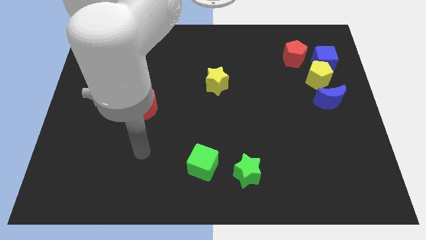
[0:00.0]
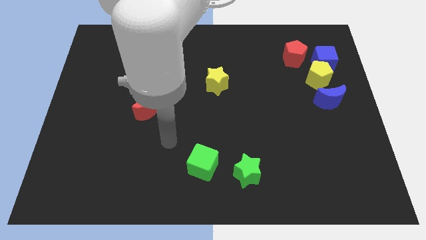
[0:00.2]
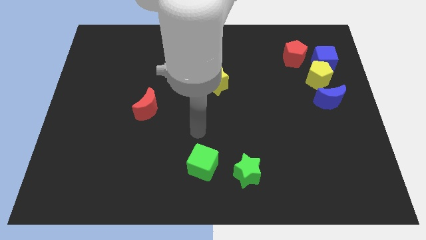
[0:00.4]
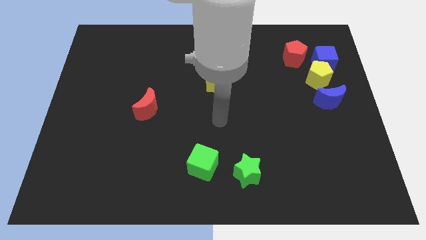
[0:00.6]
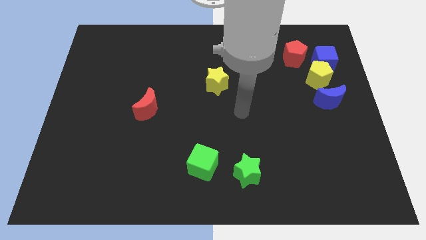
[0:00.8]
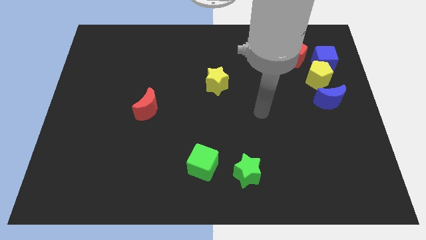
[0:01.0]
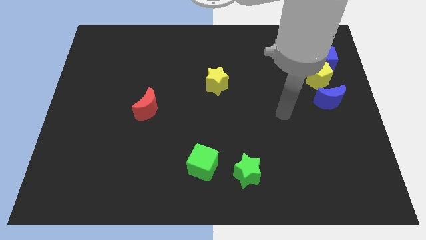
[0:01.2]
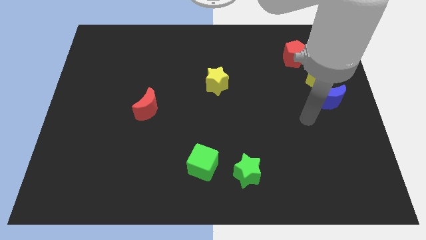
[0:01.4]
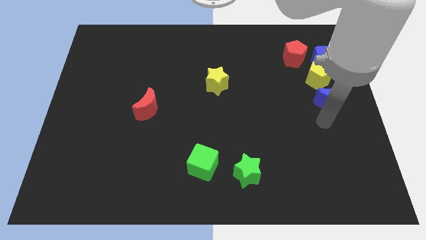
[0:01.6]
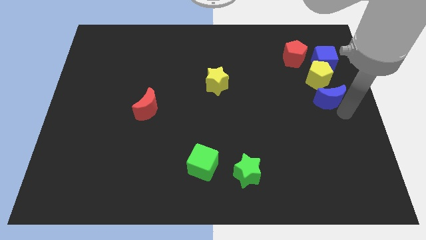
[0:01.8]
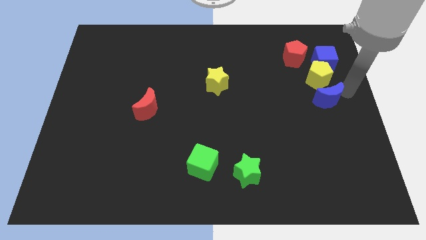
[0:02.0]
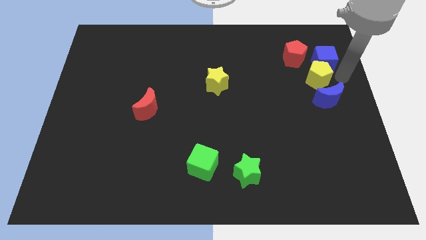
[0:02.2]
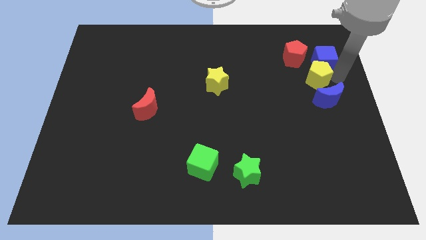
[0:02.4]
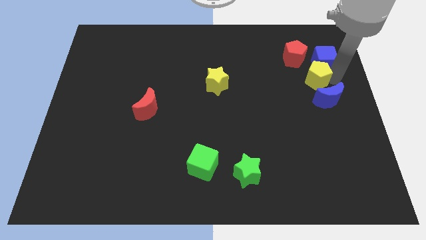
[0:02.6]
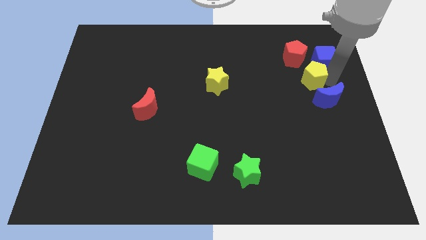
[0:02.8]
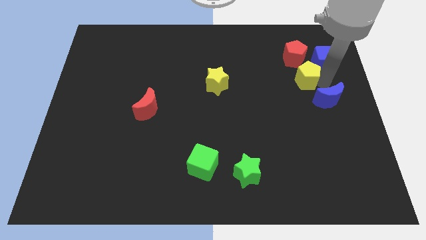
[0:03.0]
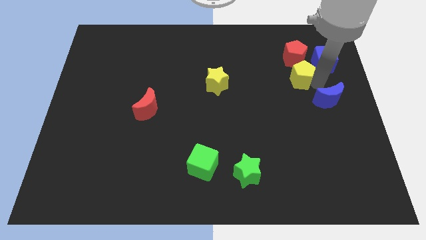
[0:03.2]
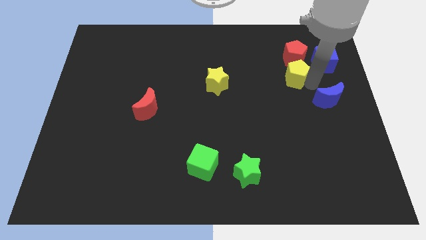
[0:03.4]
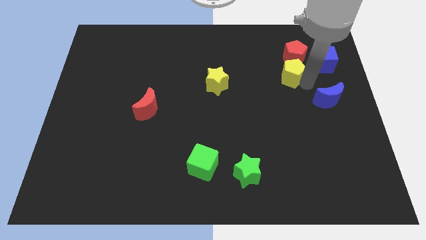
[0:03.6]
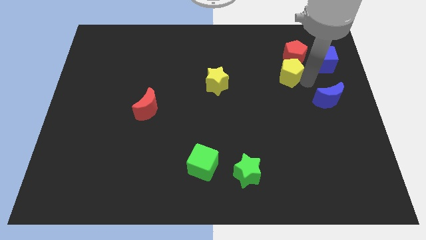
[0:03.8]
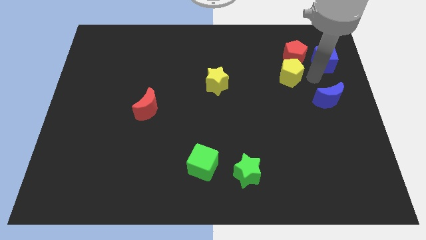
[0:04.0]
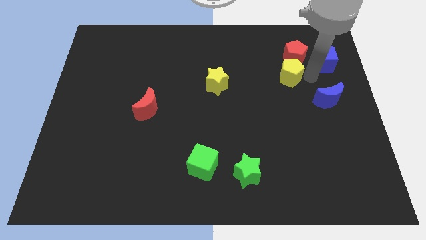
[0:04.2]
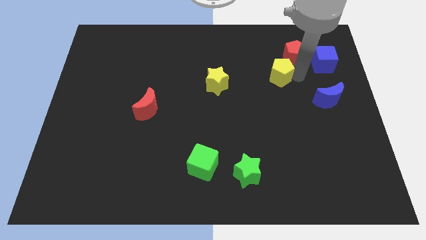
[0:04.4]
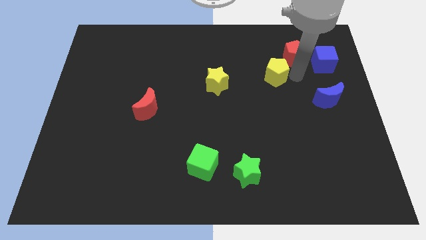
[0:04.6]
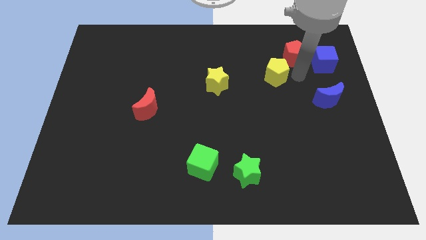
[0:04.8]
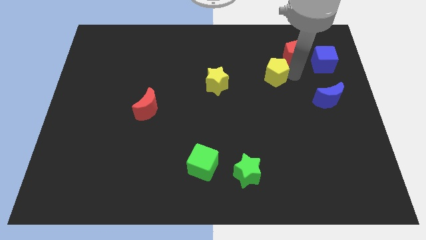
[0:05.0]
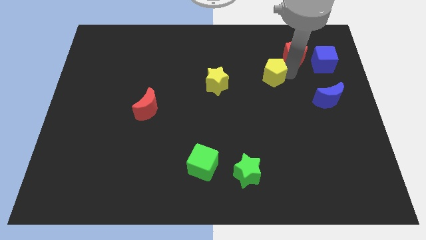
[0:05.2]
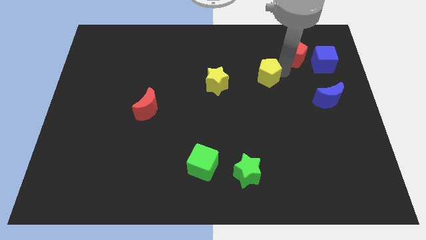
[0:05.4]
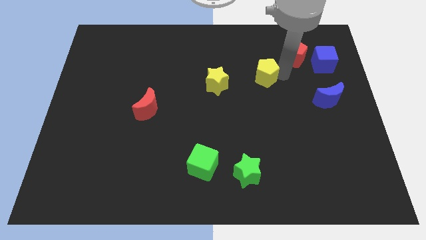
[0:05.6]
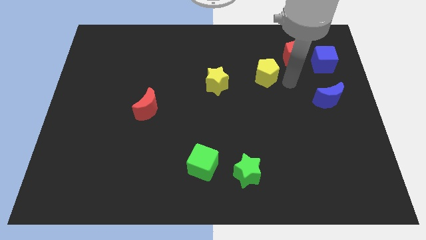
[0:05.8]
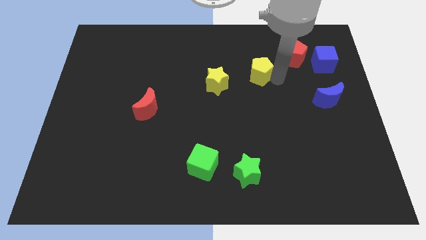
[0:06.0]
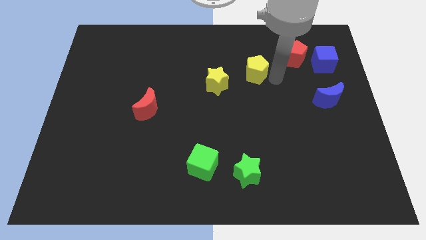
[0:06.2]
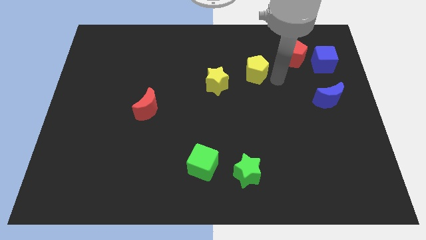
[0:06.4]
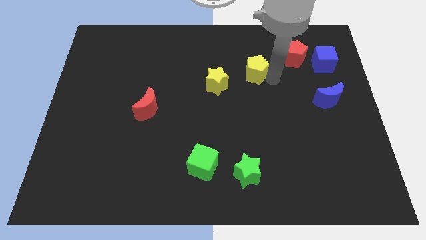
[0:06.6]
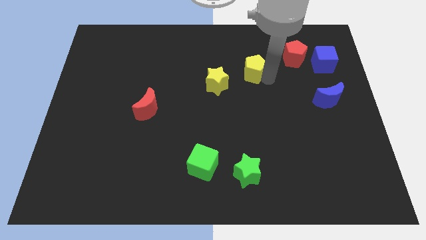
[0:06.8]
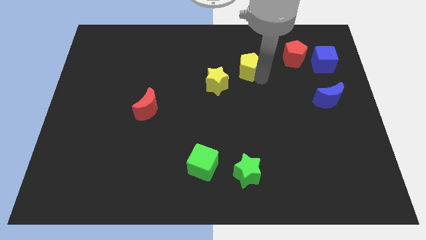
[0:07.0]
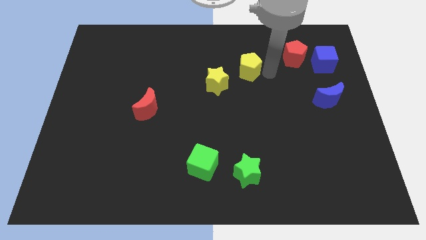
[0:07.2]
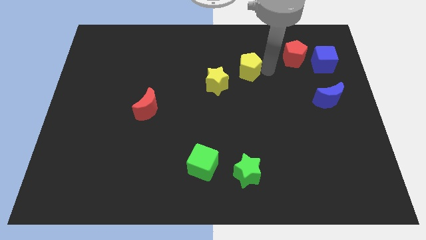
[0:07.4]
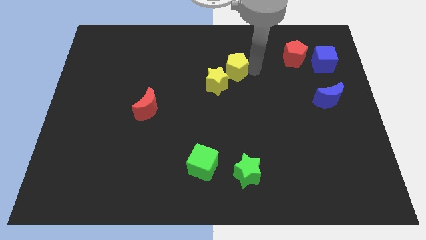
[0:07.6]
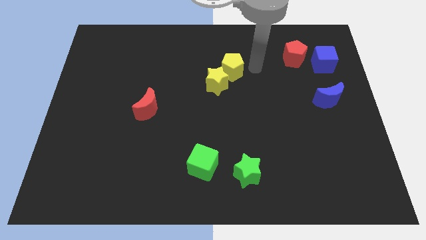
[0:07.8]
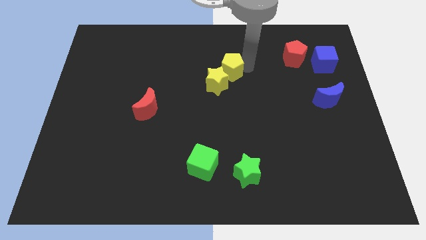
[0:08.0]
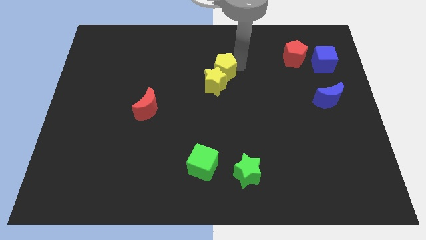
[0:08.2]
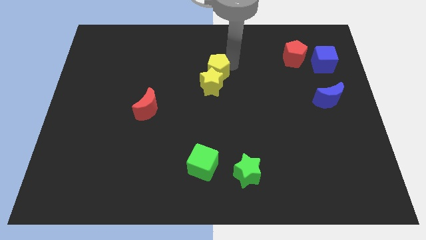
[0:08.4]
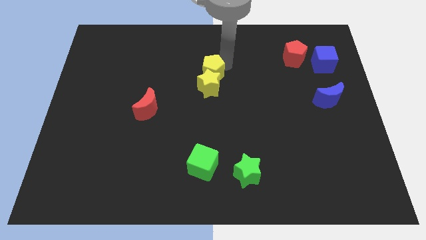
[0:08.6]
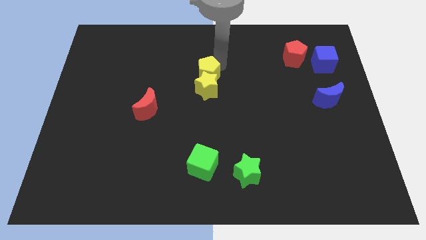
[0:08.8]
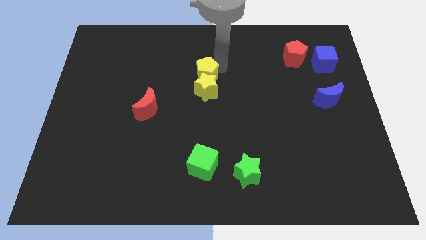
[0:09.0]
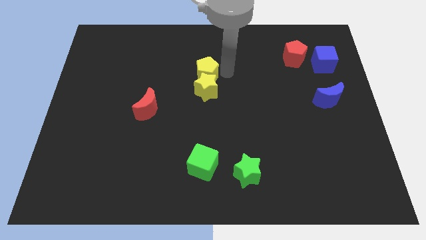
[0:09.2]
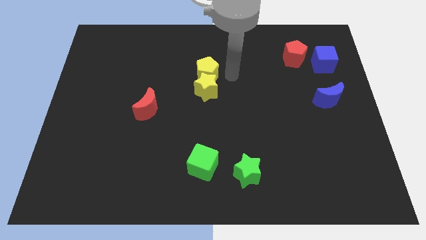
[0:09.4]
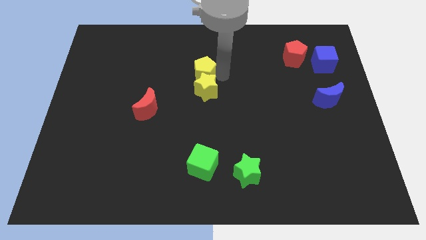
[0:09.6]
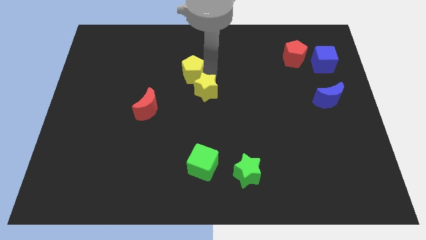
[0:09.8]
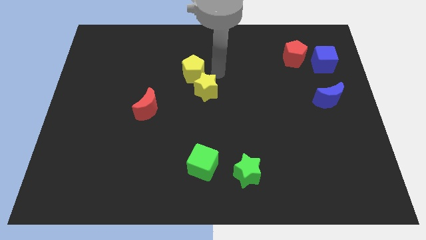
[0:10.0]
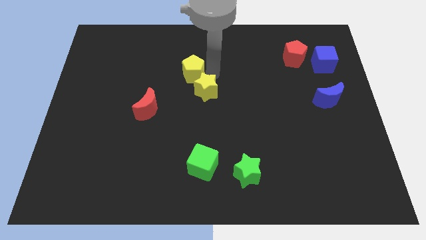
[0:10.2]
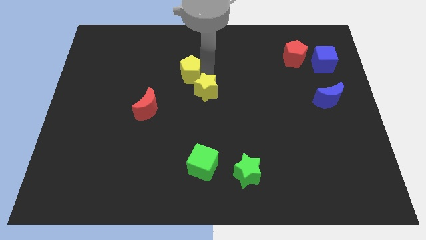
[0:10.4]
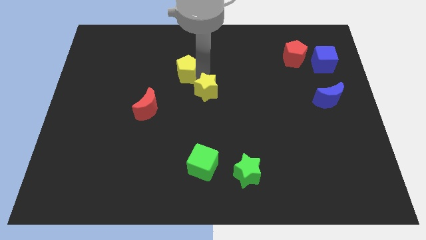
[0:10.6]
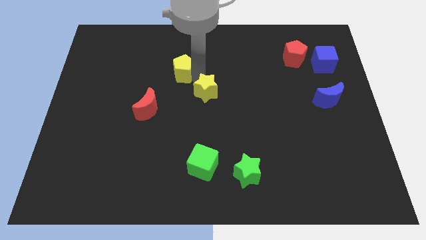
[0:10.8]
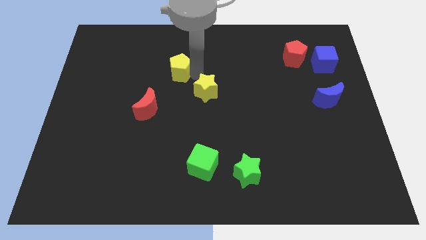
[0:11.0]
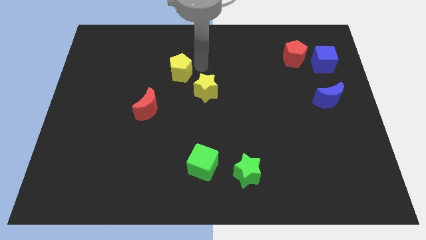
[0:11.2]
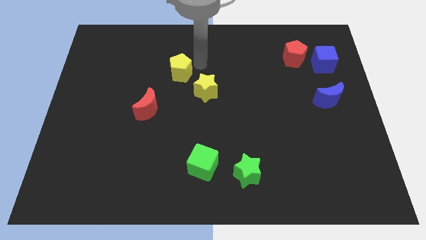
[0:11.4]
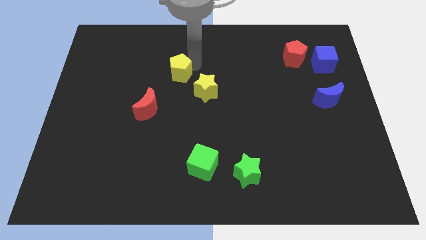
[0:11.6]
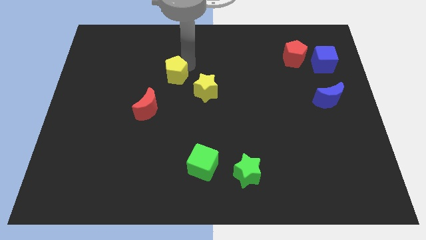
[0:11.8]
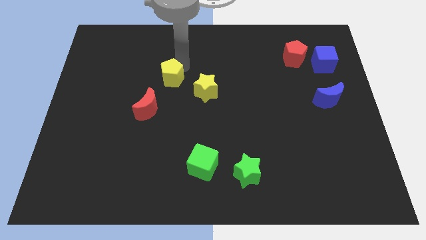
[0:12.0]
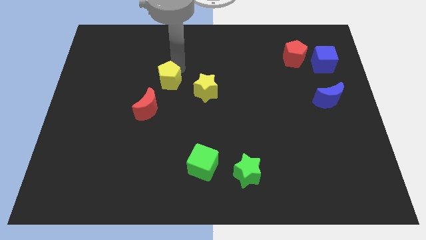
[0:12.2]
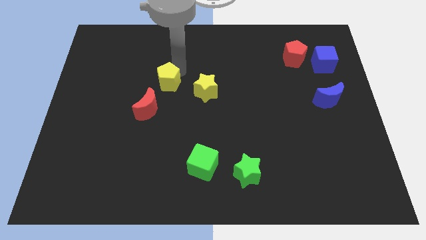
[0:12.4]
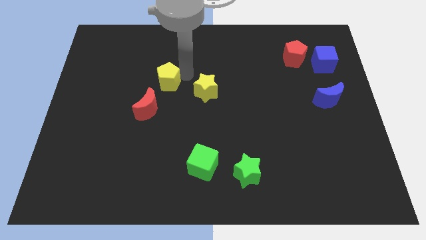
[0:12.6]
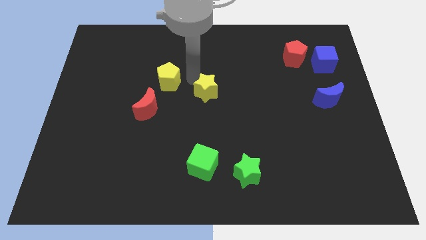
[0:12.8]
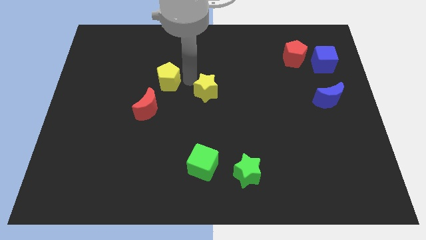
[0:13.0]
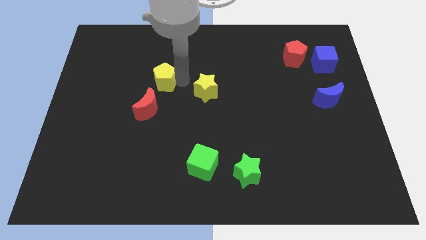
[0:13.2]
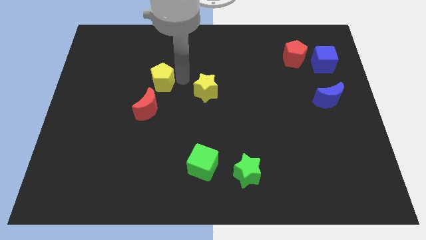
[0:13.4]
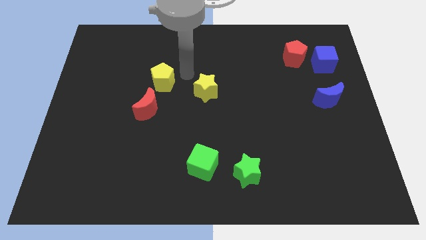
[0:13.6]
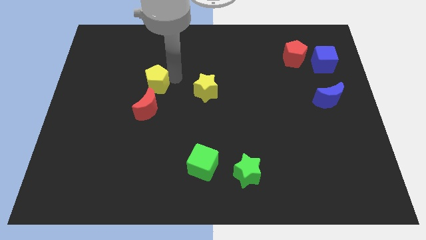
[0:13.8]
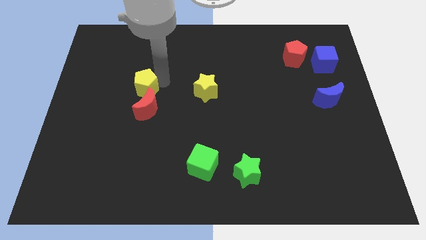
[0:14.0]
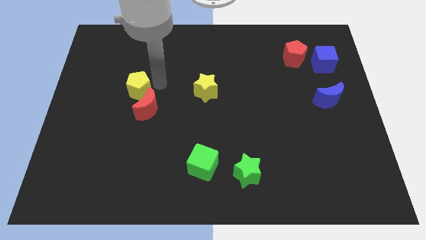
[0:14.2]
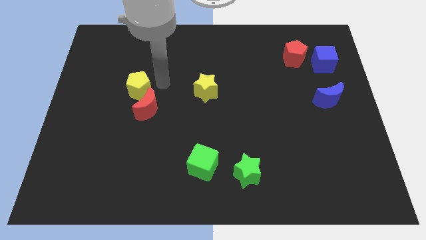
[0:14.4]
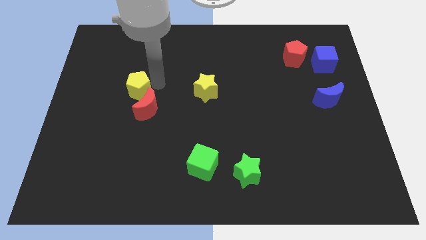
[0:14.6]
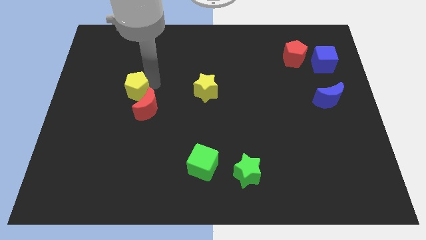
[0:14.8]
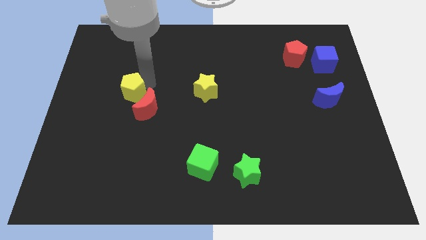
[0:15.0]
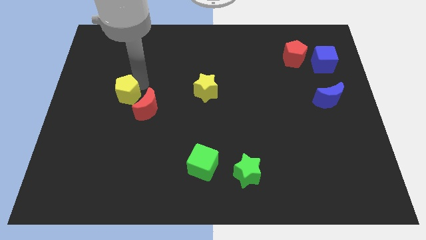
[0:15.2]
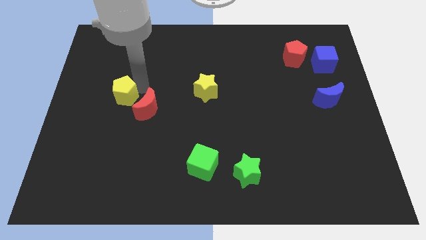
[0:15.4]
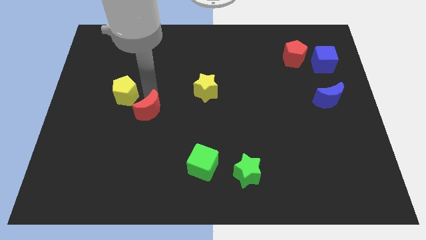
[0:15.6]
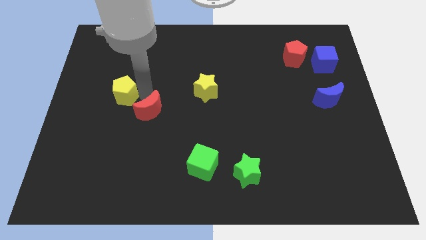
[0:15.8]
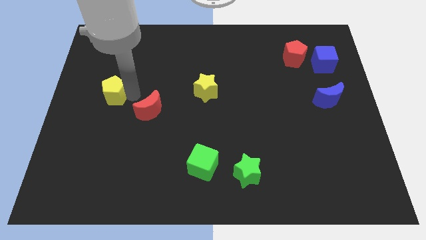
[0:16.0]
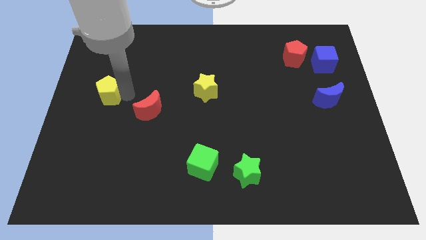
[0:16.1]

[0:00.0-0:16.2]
push the yellow pentagon to the left side
